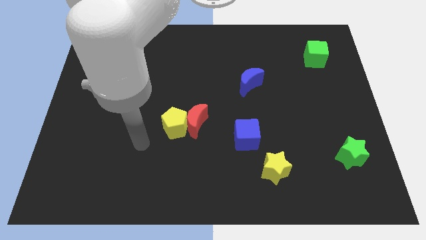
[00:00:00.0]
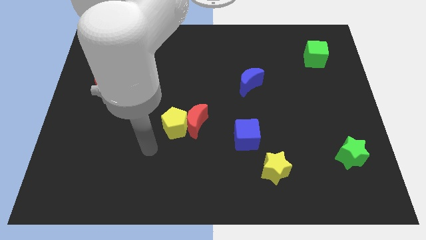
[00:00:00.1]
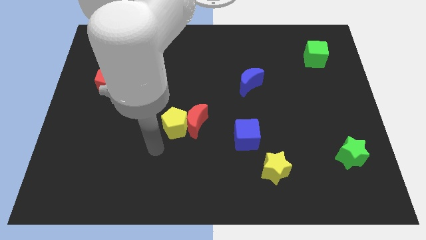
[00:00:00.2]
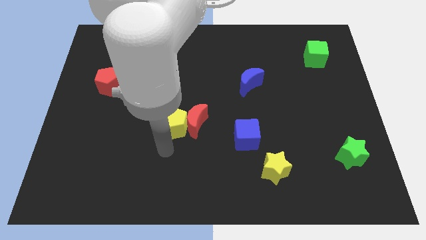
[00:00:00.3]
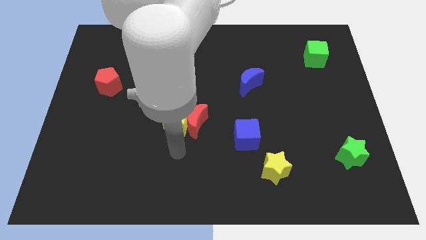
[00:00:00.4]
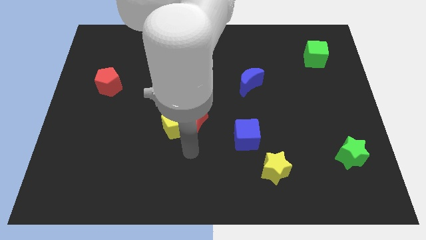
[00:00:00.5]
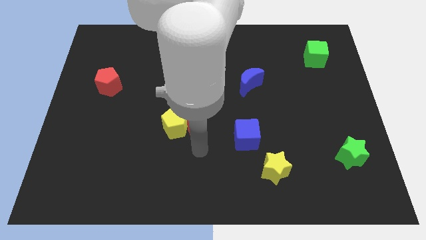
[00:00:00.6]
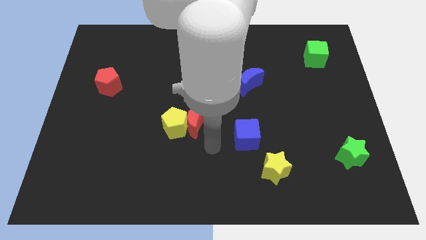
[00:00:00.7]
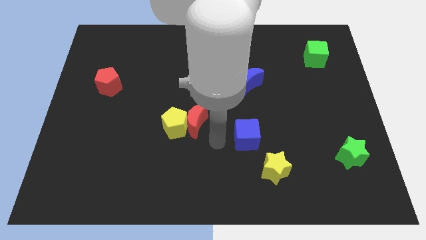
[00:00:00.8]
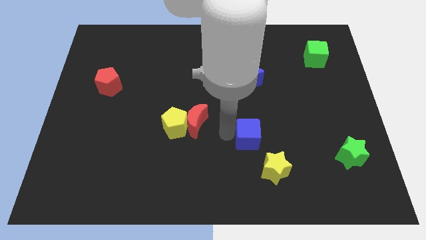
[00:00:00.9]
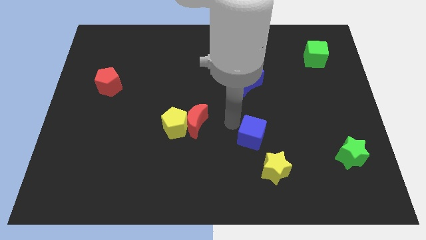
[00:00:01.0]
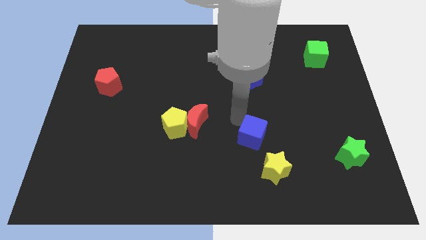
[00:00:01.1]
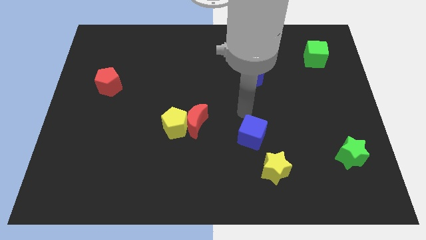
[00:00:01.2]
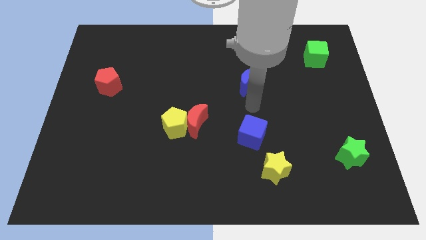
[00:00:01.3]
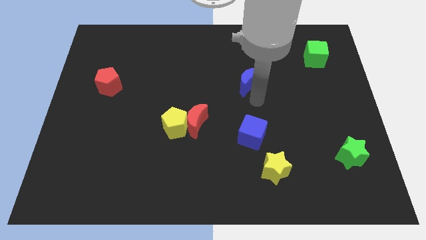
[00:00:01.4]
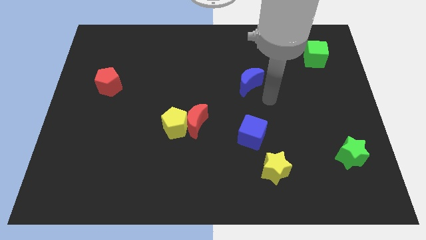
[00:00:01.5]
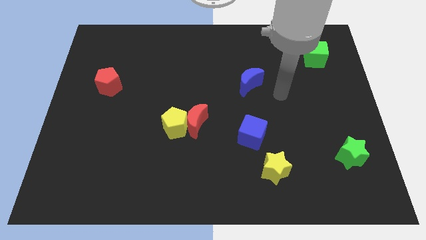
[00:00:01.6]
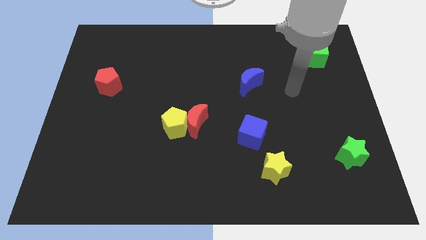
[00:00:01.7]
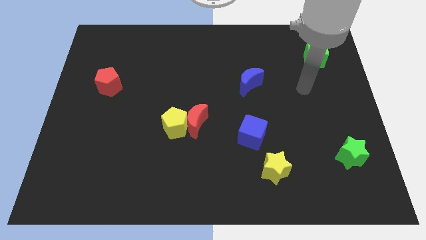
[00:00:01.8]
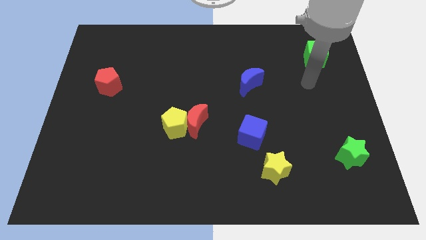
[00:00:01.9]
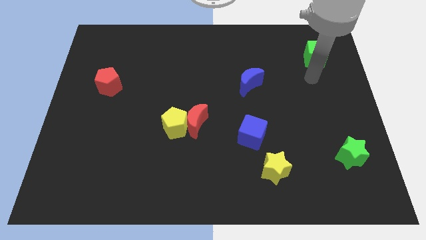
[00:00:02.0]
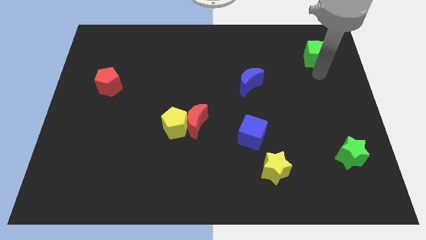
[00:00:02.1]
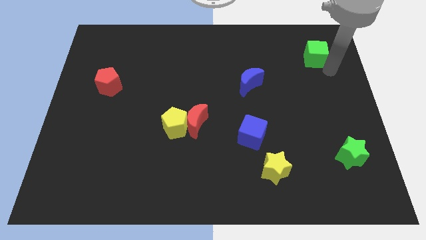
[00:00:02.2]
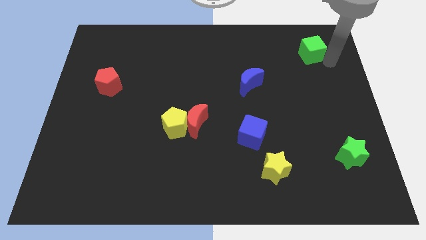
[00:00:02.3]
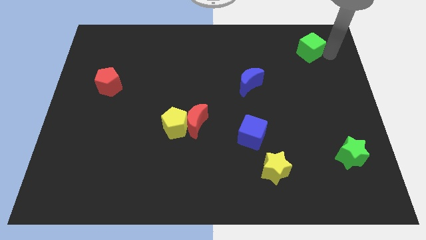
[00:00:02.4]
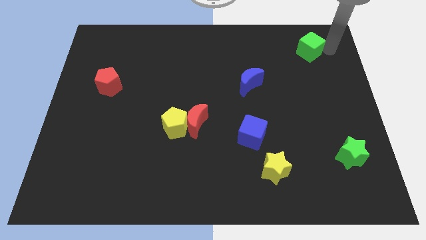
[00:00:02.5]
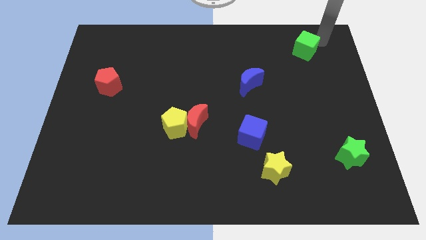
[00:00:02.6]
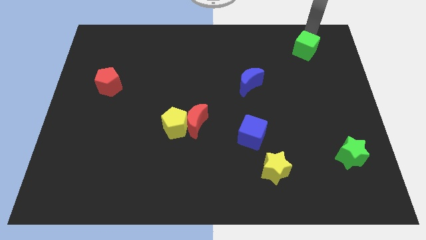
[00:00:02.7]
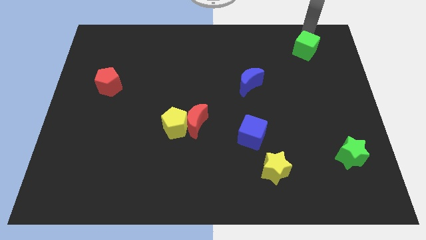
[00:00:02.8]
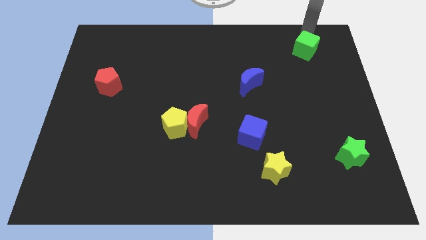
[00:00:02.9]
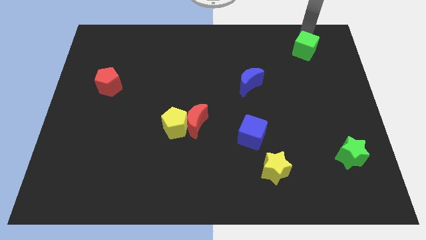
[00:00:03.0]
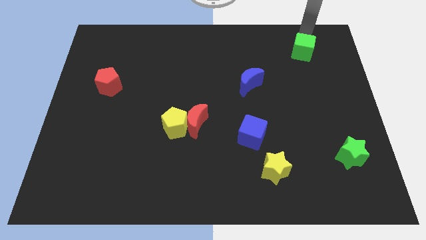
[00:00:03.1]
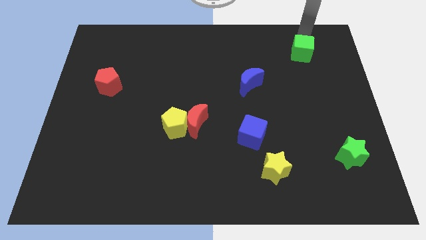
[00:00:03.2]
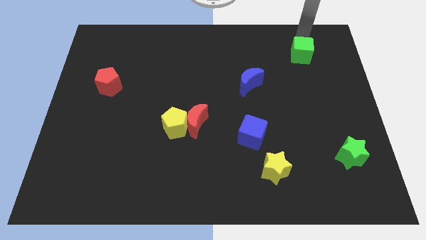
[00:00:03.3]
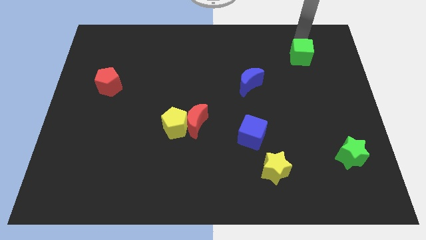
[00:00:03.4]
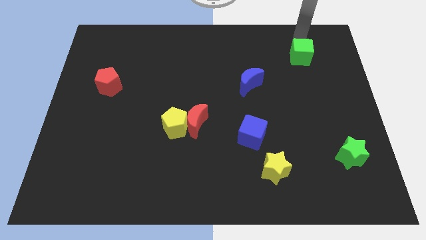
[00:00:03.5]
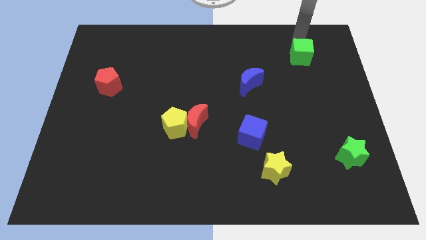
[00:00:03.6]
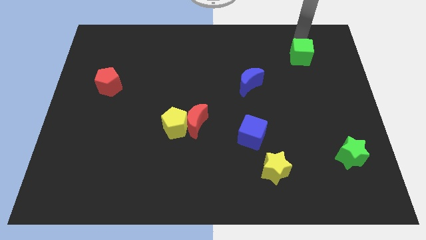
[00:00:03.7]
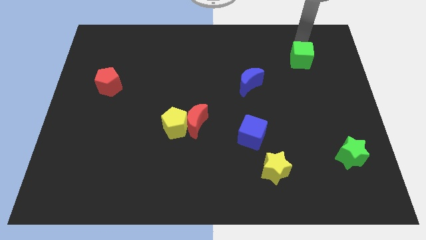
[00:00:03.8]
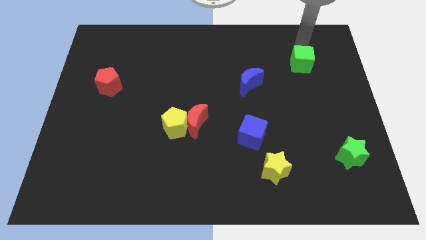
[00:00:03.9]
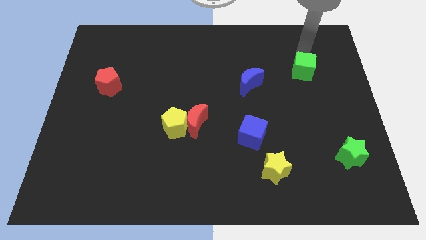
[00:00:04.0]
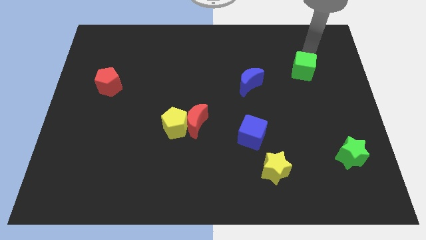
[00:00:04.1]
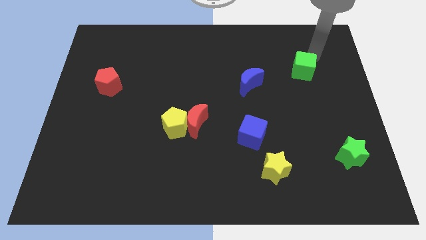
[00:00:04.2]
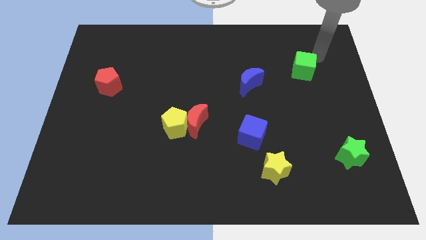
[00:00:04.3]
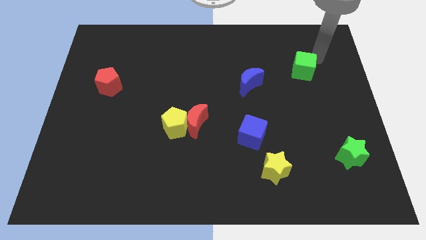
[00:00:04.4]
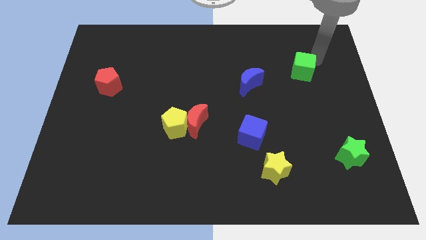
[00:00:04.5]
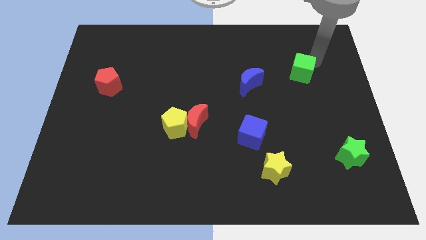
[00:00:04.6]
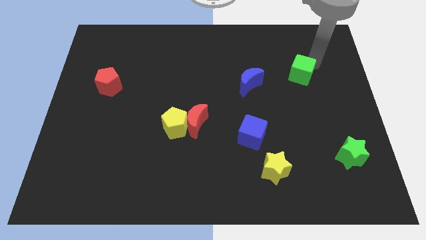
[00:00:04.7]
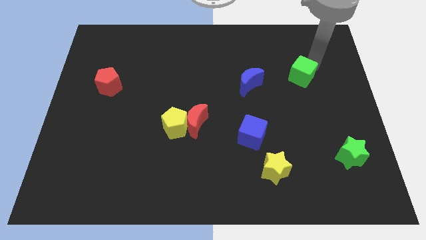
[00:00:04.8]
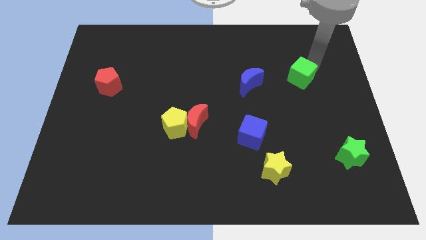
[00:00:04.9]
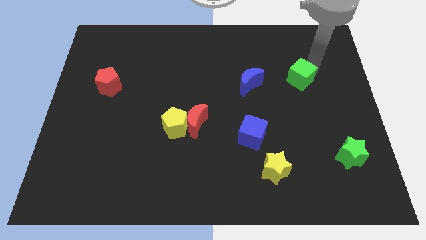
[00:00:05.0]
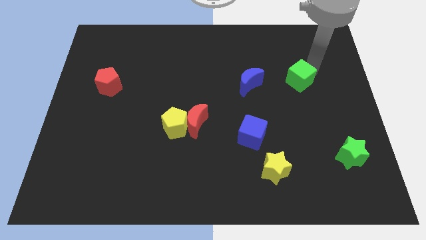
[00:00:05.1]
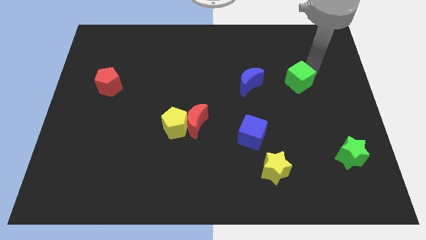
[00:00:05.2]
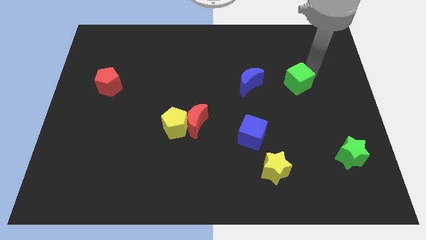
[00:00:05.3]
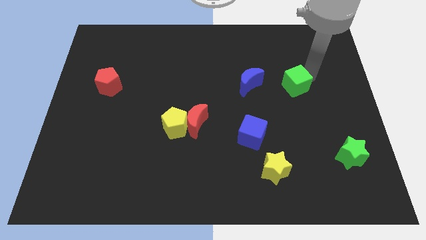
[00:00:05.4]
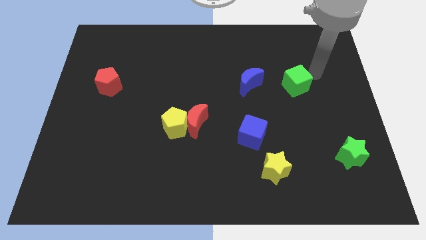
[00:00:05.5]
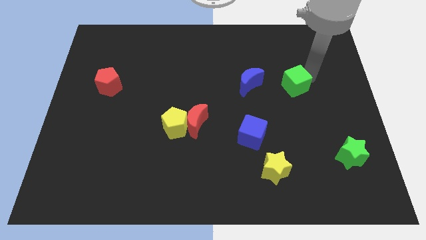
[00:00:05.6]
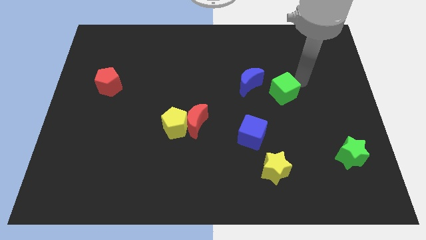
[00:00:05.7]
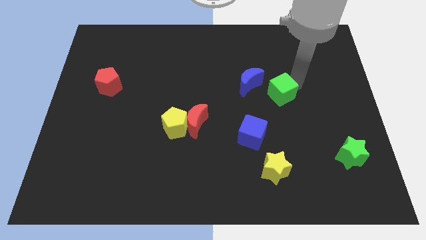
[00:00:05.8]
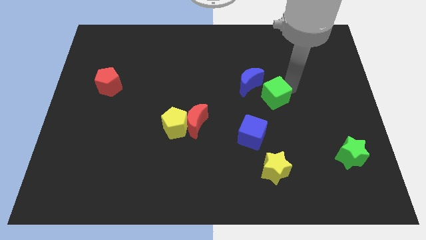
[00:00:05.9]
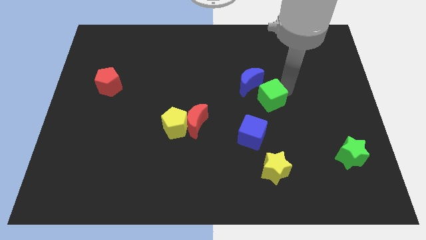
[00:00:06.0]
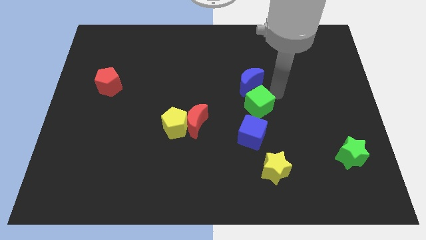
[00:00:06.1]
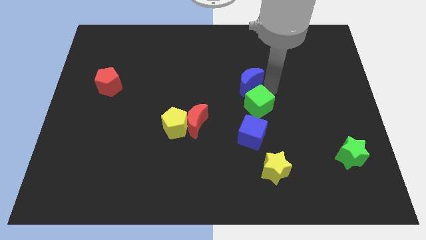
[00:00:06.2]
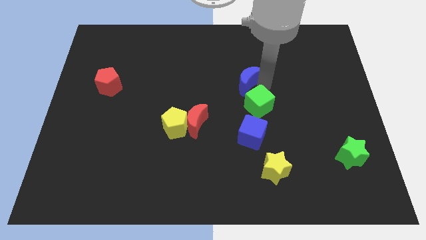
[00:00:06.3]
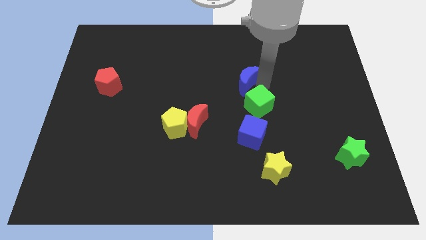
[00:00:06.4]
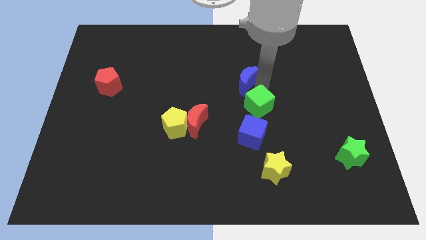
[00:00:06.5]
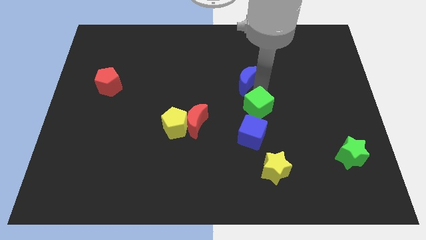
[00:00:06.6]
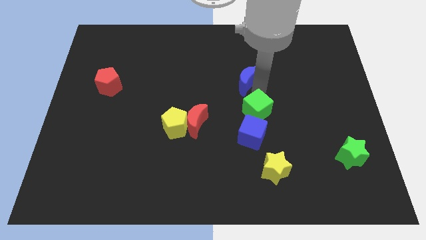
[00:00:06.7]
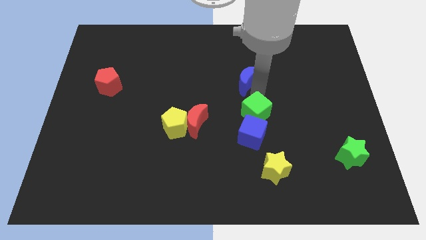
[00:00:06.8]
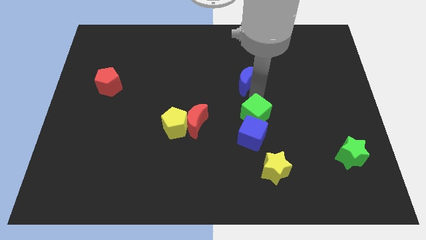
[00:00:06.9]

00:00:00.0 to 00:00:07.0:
slide the green cube close to the blue cube
